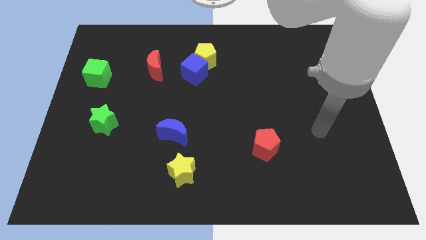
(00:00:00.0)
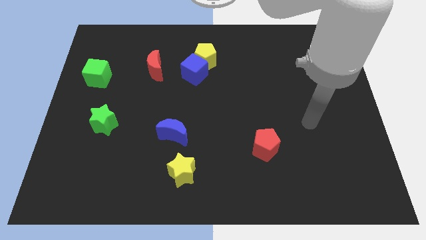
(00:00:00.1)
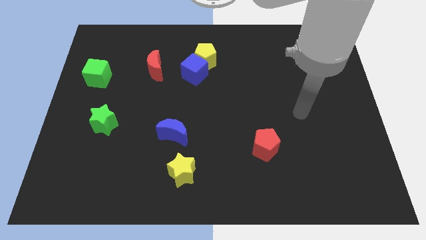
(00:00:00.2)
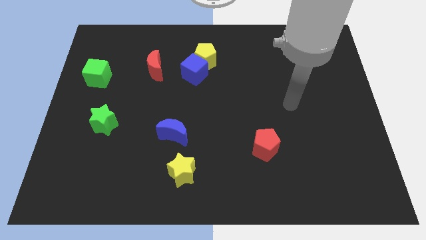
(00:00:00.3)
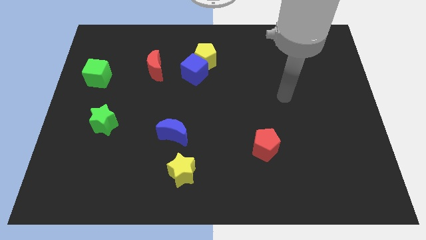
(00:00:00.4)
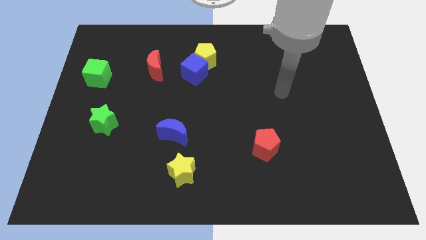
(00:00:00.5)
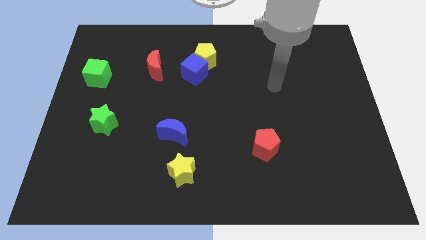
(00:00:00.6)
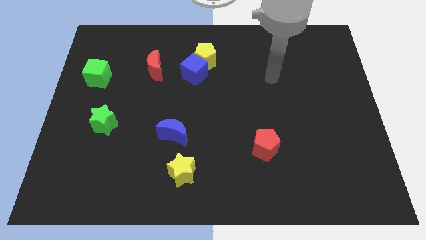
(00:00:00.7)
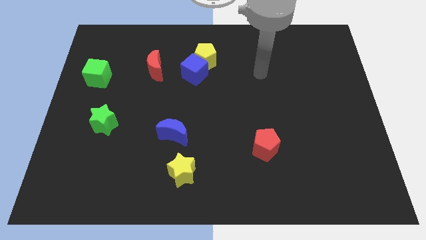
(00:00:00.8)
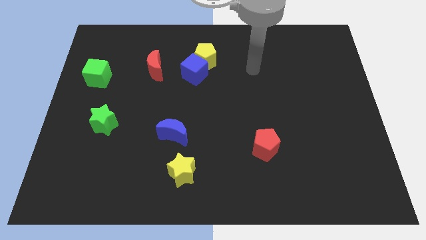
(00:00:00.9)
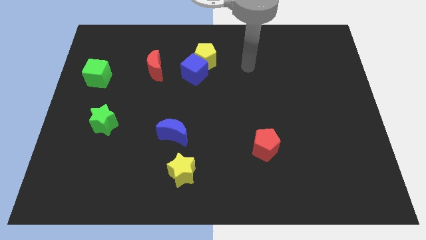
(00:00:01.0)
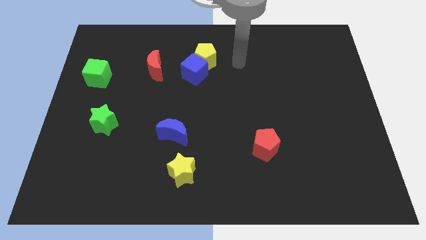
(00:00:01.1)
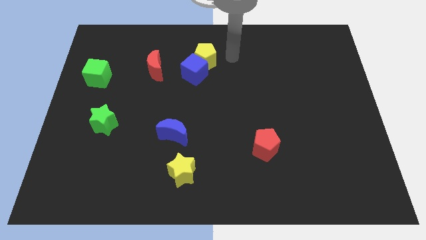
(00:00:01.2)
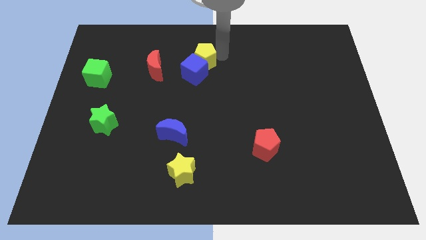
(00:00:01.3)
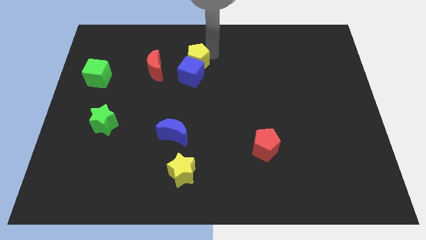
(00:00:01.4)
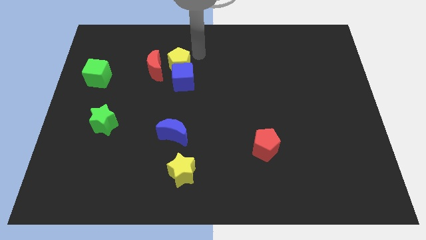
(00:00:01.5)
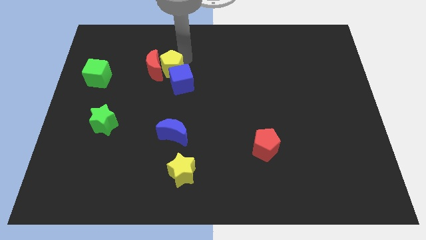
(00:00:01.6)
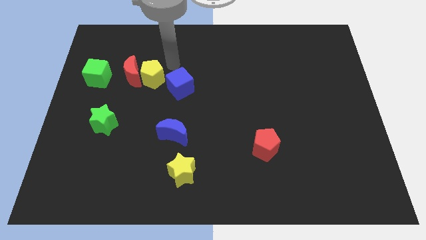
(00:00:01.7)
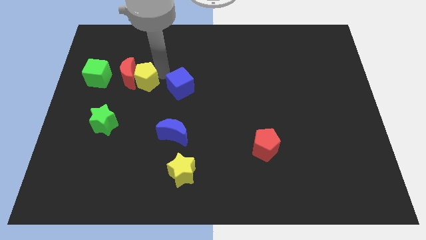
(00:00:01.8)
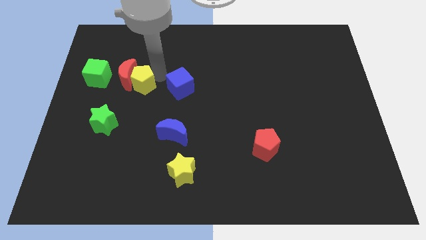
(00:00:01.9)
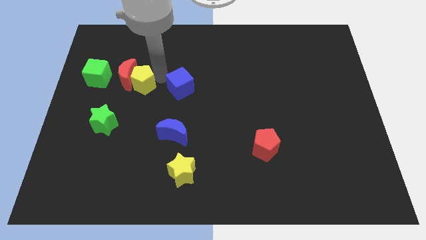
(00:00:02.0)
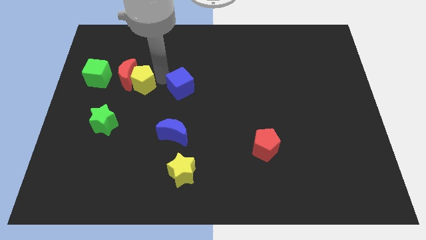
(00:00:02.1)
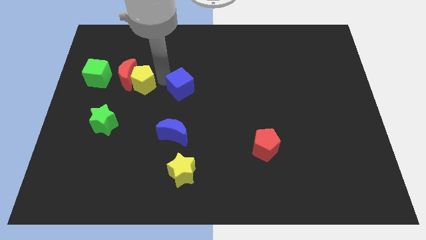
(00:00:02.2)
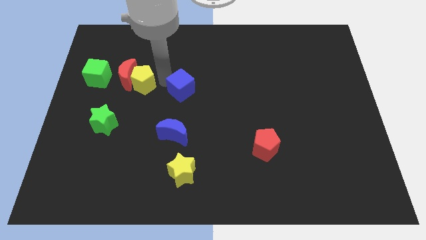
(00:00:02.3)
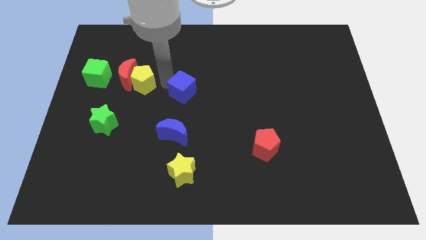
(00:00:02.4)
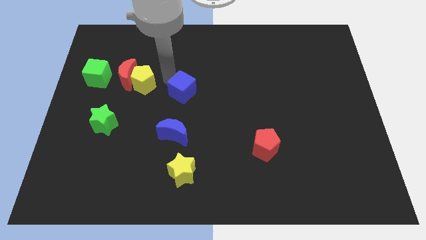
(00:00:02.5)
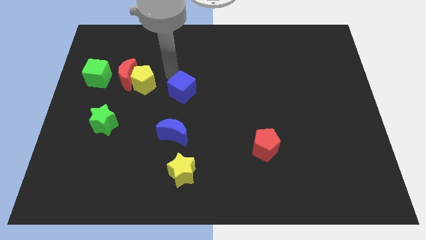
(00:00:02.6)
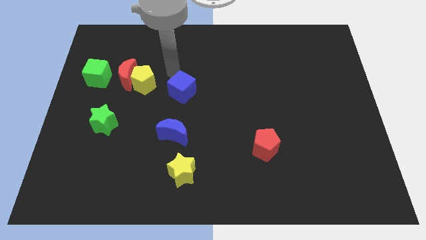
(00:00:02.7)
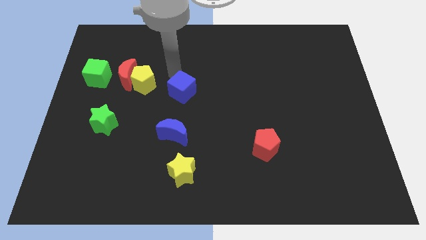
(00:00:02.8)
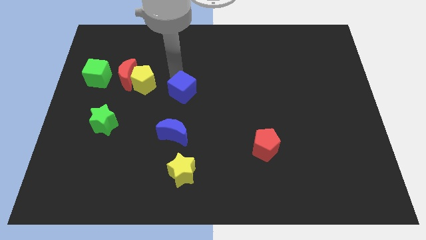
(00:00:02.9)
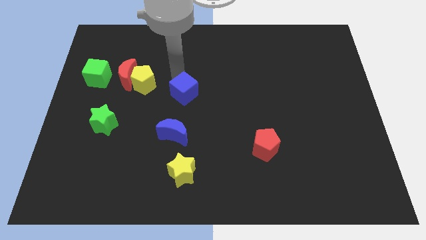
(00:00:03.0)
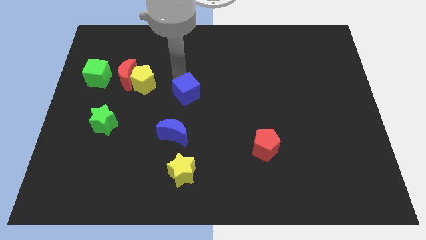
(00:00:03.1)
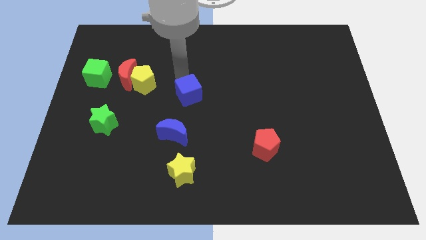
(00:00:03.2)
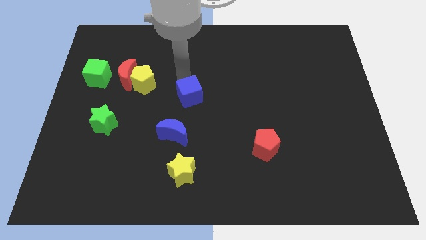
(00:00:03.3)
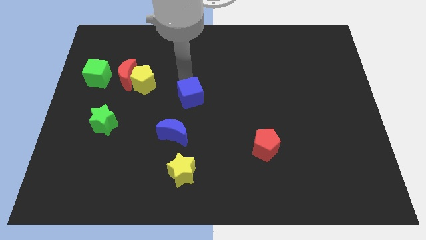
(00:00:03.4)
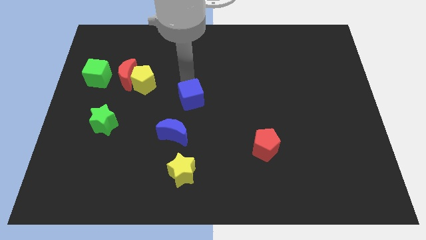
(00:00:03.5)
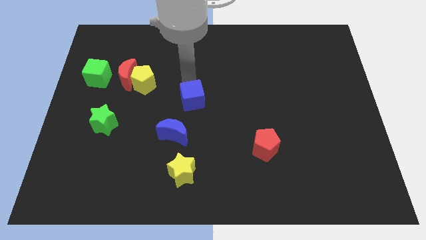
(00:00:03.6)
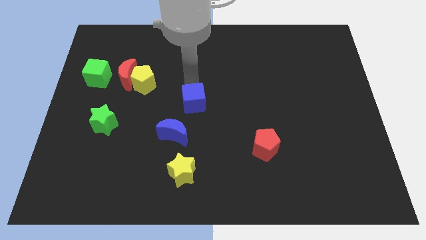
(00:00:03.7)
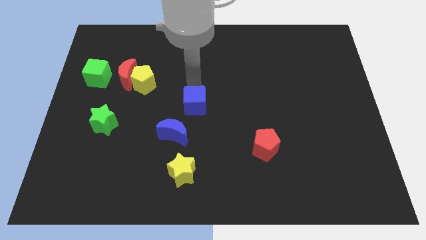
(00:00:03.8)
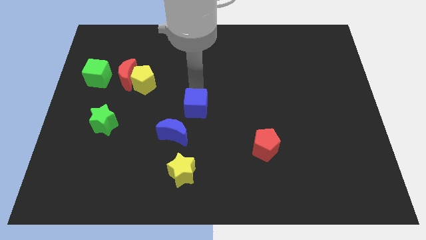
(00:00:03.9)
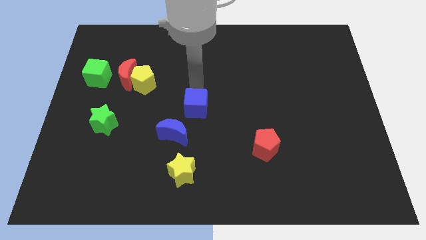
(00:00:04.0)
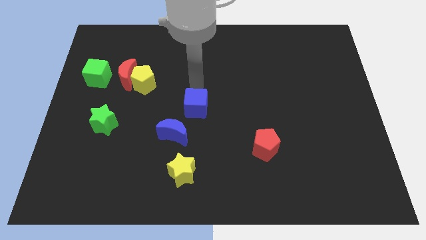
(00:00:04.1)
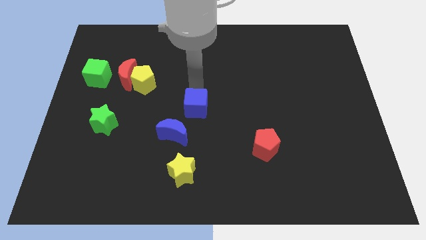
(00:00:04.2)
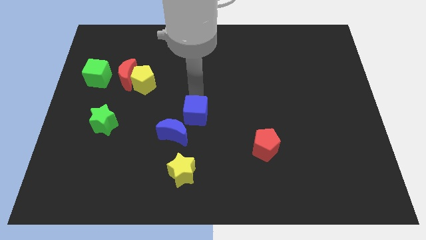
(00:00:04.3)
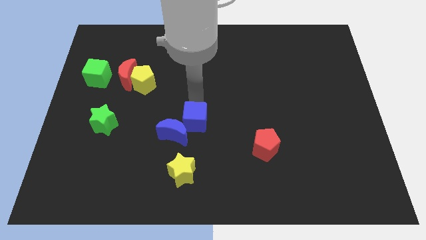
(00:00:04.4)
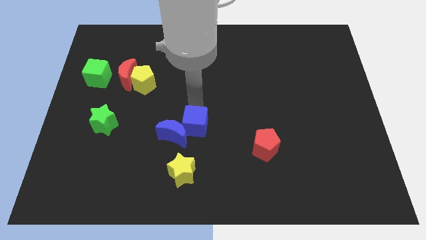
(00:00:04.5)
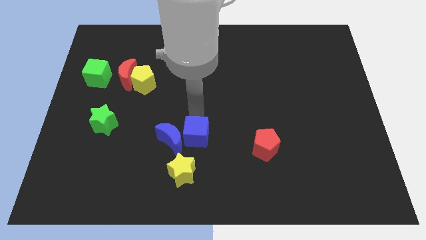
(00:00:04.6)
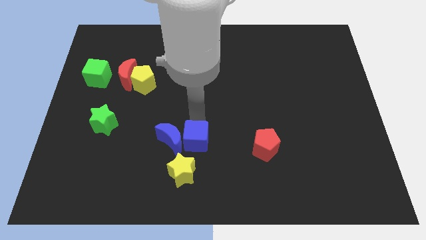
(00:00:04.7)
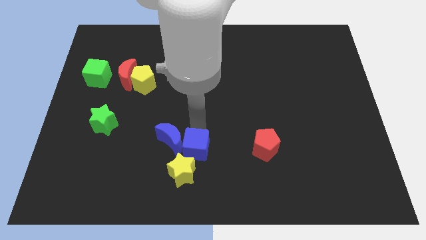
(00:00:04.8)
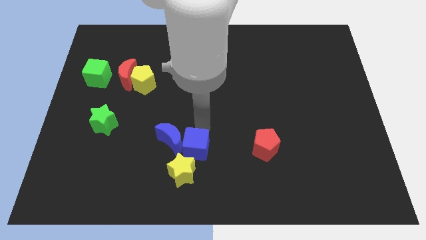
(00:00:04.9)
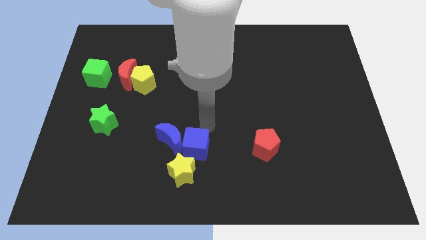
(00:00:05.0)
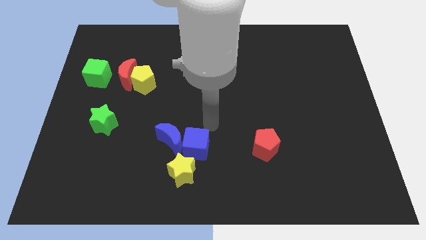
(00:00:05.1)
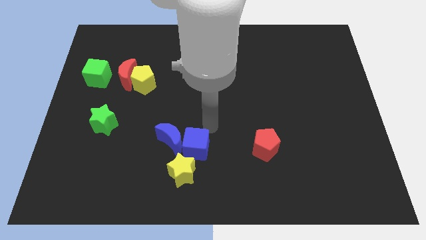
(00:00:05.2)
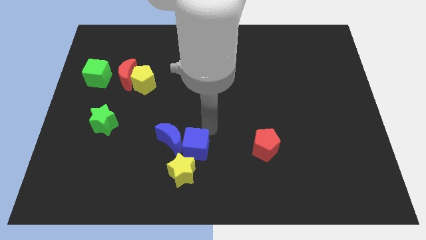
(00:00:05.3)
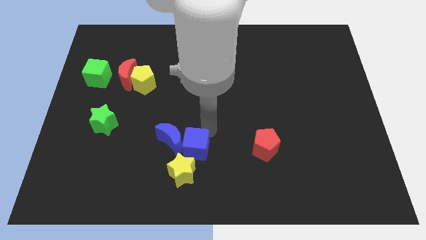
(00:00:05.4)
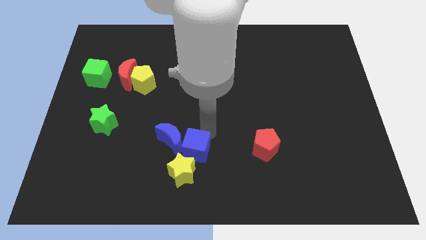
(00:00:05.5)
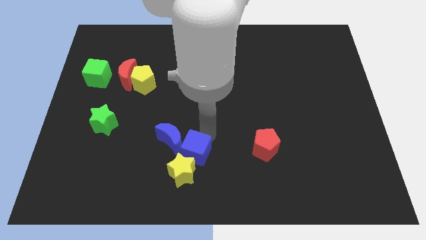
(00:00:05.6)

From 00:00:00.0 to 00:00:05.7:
push the blue cube towards the yellow star

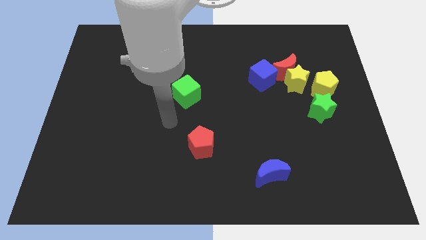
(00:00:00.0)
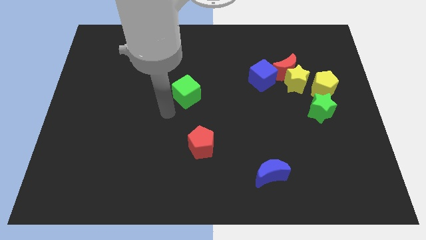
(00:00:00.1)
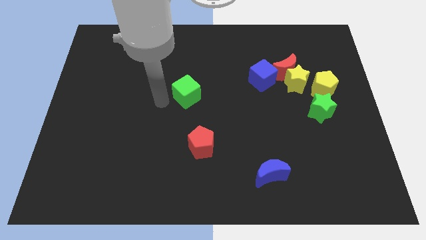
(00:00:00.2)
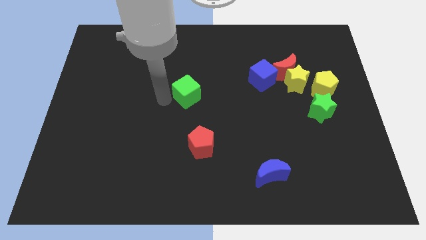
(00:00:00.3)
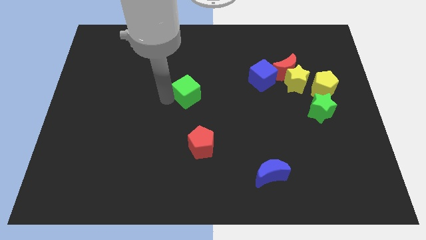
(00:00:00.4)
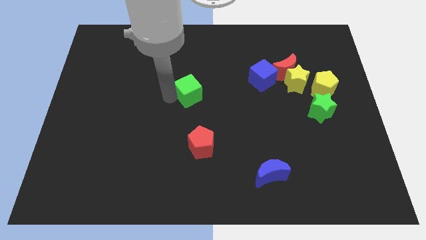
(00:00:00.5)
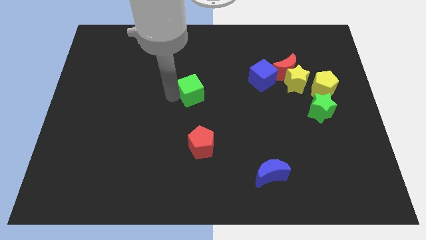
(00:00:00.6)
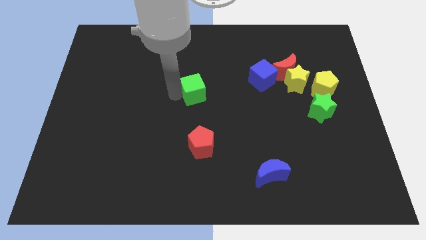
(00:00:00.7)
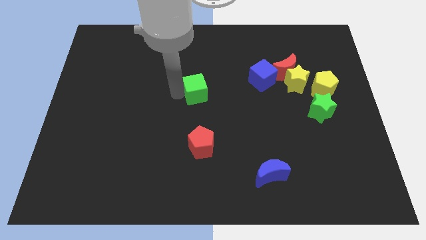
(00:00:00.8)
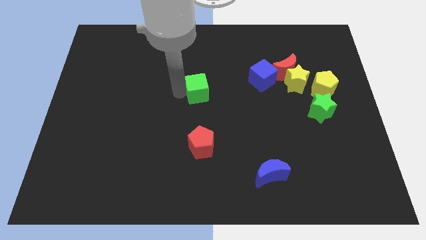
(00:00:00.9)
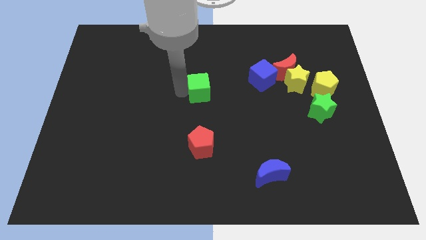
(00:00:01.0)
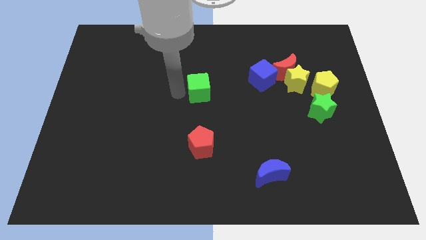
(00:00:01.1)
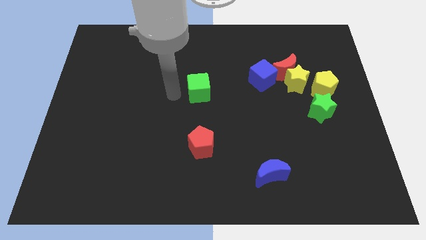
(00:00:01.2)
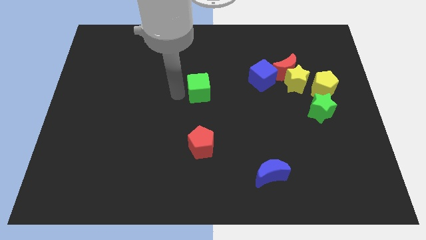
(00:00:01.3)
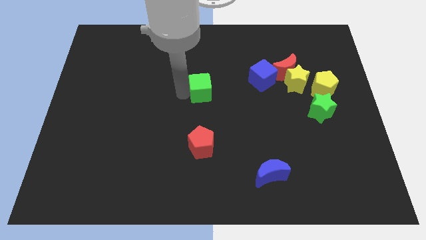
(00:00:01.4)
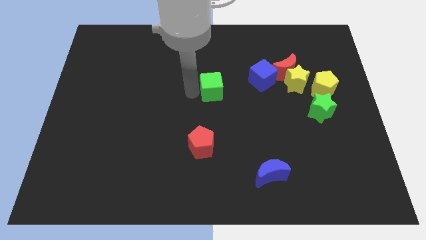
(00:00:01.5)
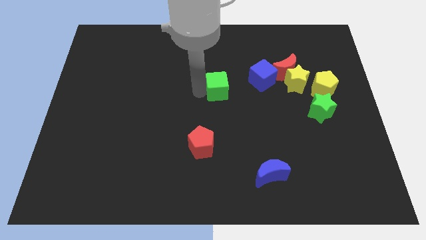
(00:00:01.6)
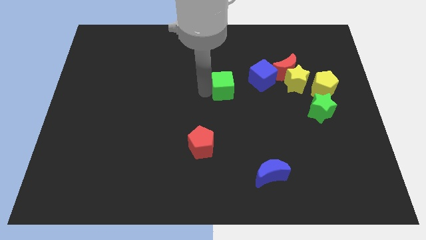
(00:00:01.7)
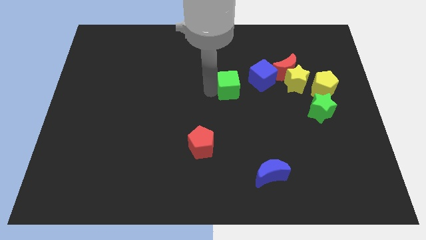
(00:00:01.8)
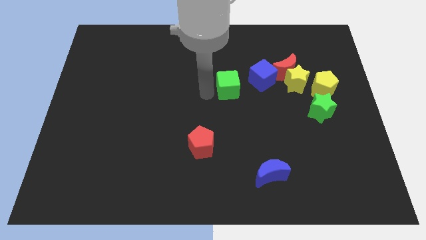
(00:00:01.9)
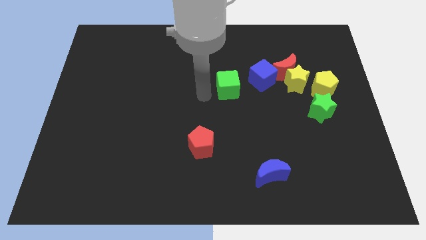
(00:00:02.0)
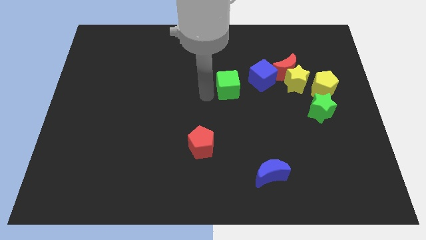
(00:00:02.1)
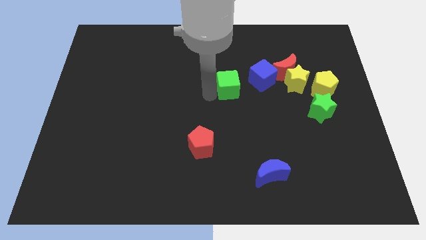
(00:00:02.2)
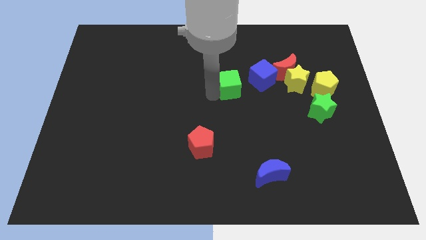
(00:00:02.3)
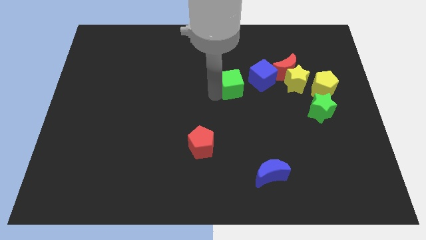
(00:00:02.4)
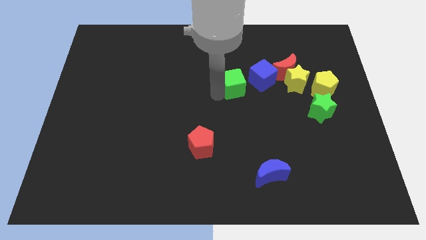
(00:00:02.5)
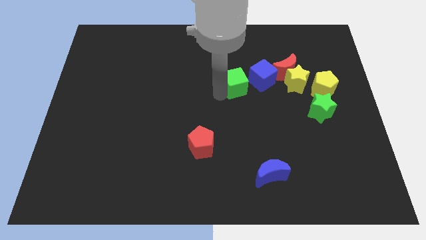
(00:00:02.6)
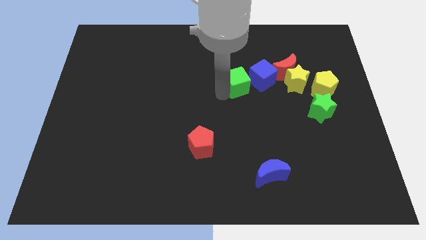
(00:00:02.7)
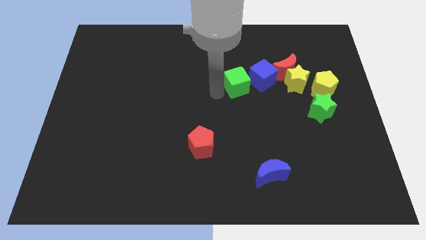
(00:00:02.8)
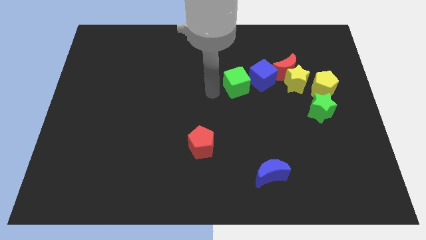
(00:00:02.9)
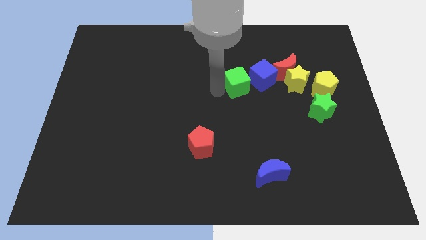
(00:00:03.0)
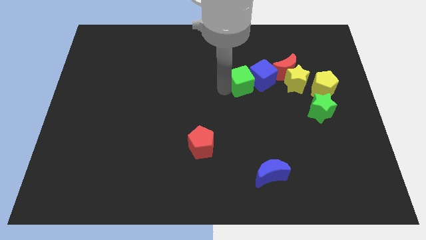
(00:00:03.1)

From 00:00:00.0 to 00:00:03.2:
slide the green cube close to the blue cube
